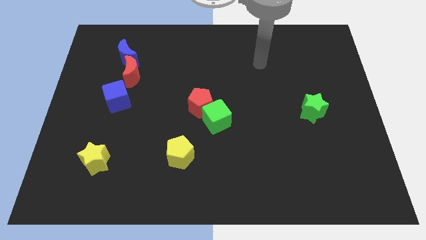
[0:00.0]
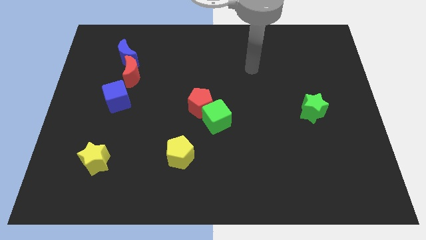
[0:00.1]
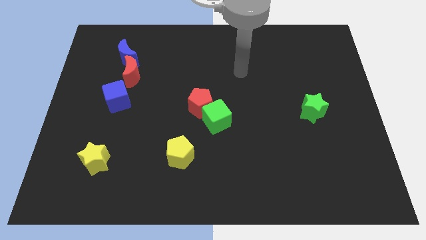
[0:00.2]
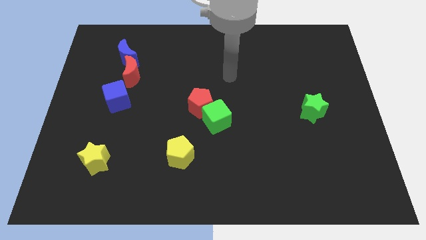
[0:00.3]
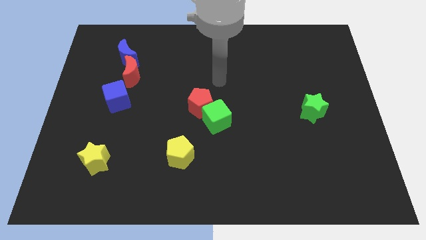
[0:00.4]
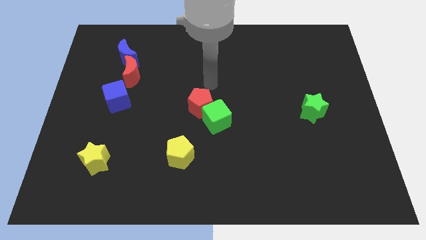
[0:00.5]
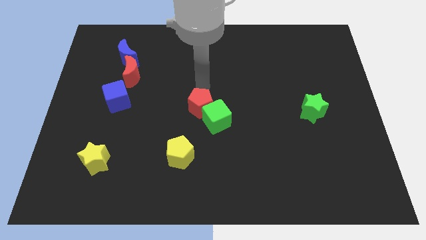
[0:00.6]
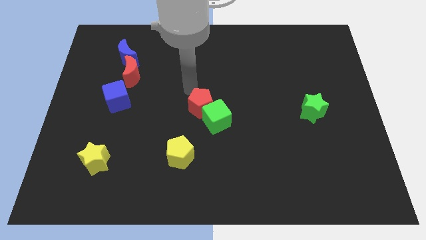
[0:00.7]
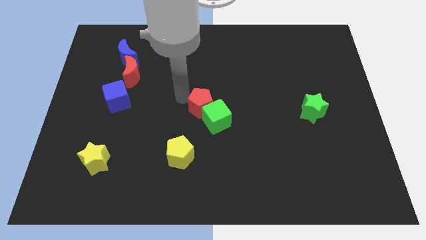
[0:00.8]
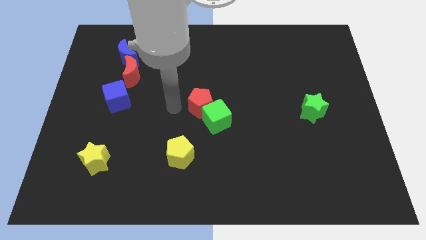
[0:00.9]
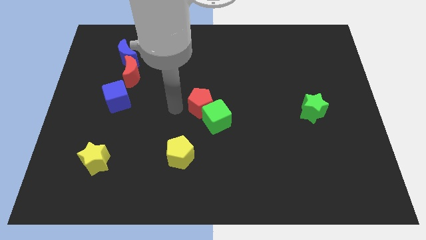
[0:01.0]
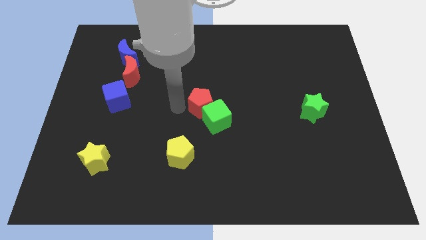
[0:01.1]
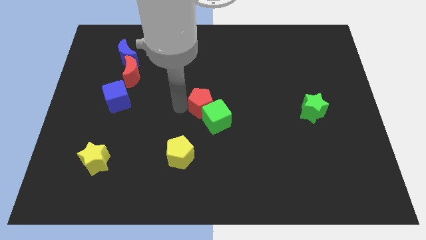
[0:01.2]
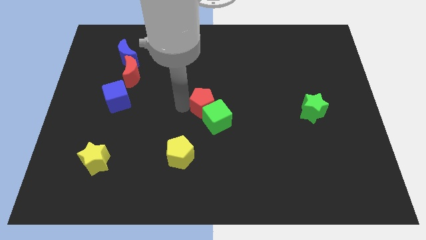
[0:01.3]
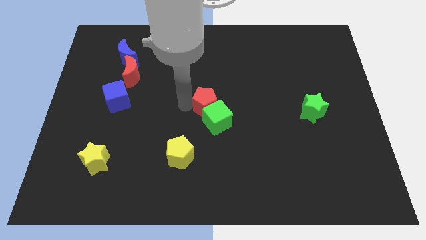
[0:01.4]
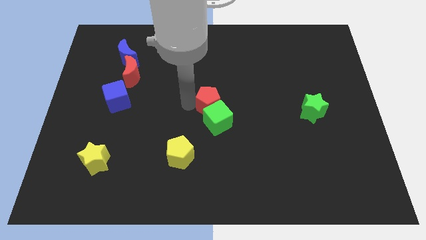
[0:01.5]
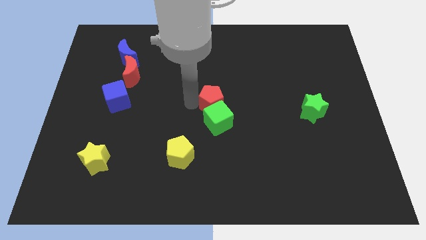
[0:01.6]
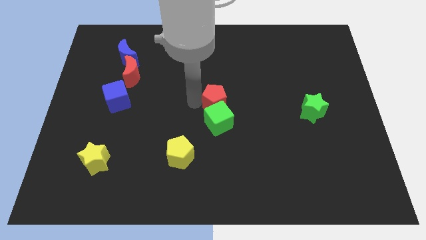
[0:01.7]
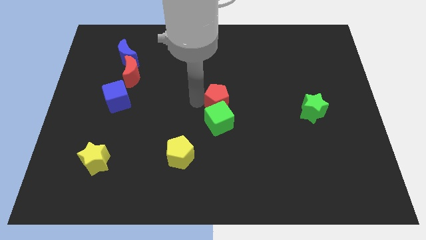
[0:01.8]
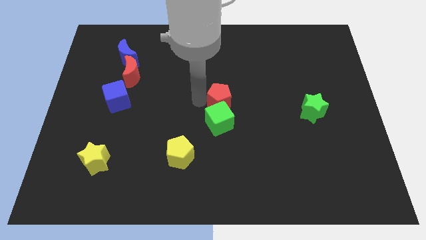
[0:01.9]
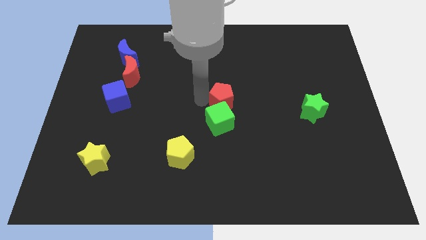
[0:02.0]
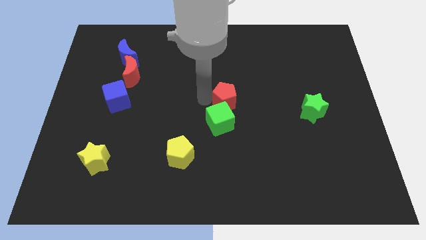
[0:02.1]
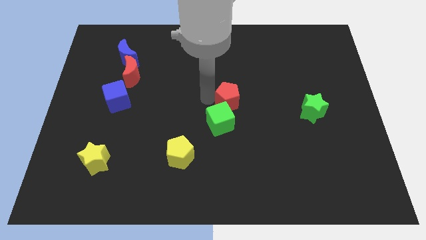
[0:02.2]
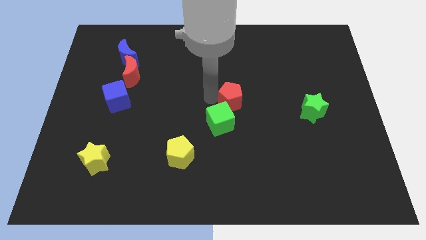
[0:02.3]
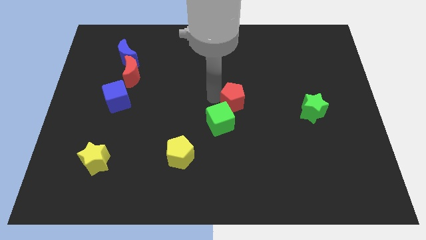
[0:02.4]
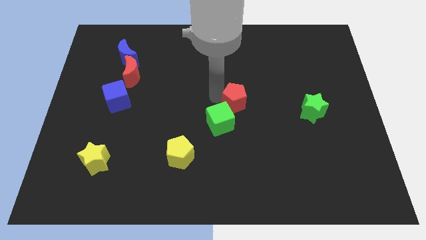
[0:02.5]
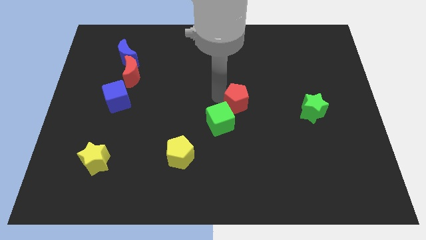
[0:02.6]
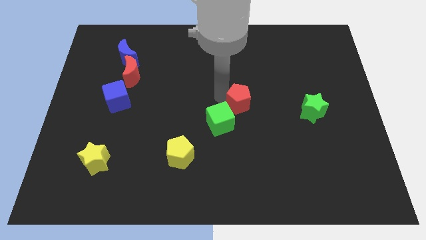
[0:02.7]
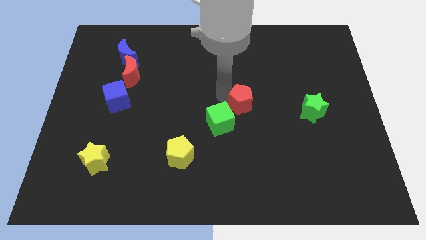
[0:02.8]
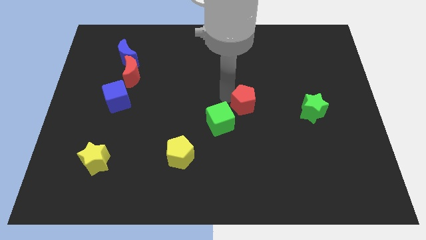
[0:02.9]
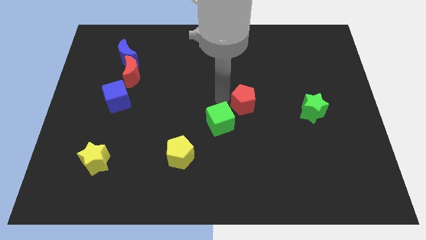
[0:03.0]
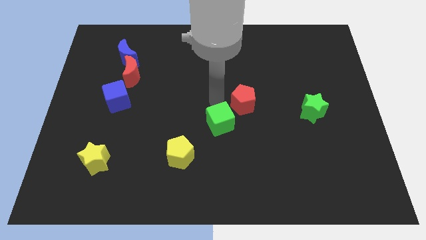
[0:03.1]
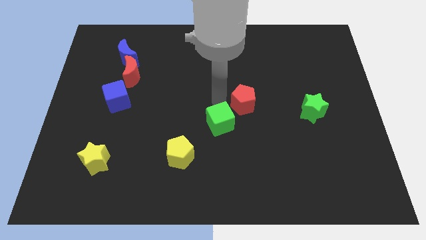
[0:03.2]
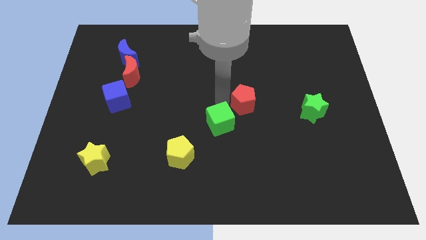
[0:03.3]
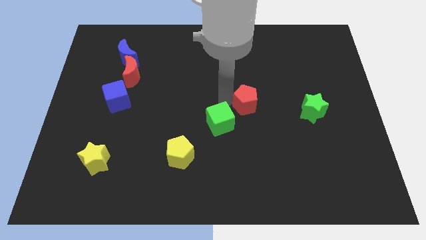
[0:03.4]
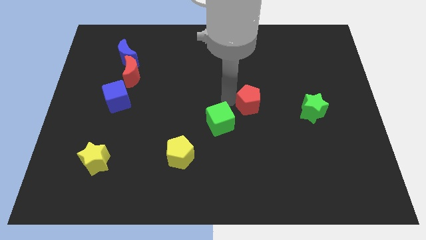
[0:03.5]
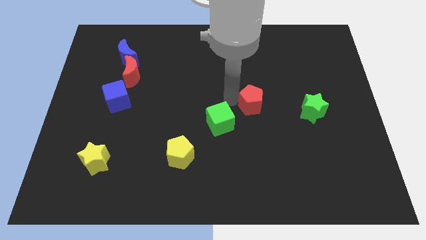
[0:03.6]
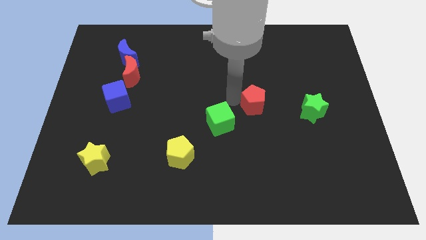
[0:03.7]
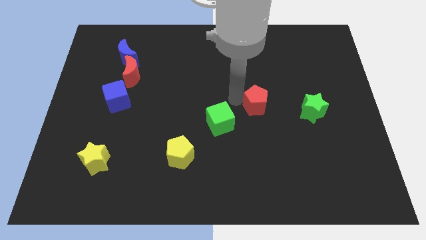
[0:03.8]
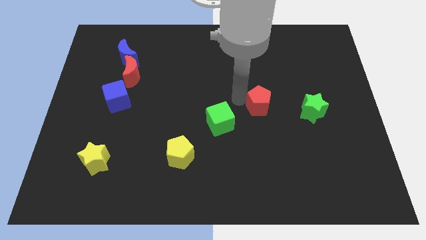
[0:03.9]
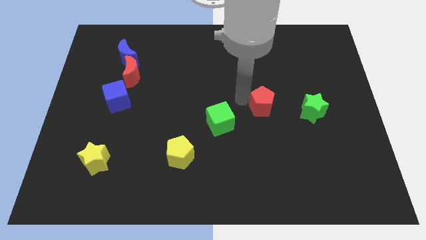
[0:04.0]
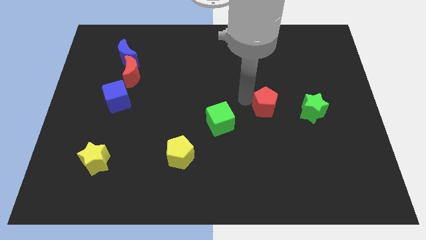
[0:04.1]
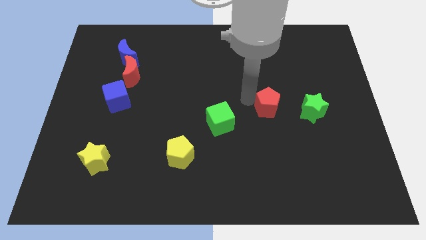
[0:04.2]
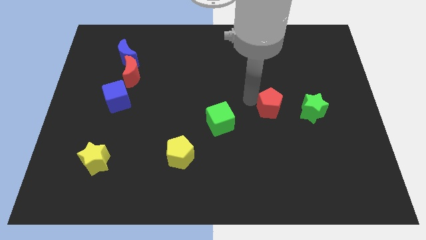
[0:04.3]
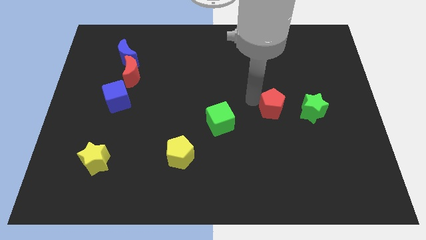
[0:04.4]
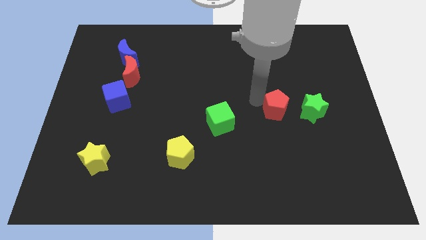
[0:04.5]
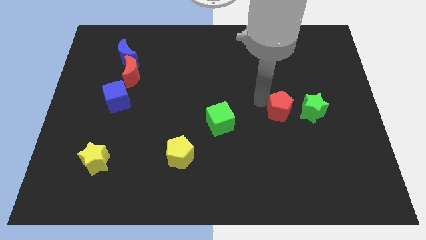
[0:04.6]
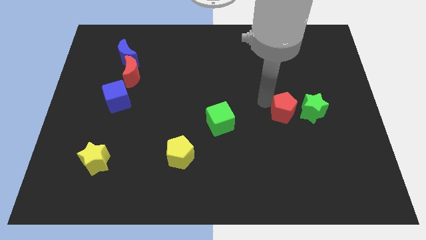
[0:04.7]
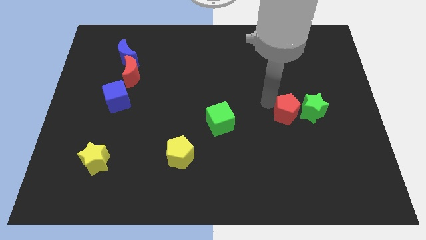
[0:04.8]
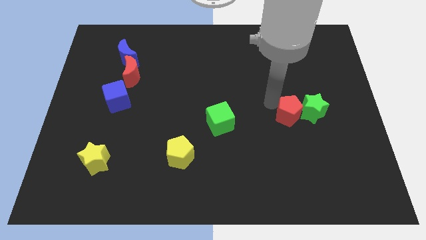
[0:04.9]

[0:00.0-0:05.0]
push the red pentagon close to the green star

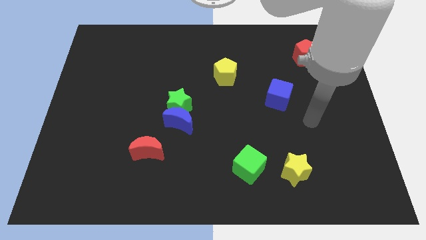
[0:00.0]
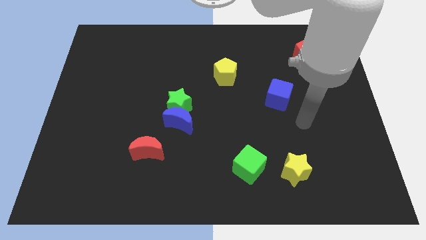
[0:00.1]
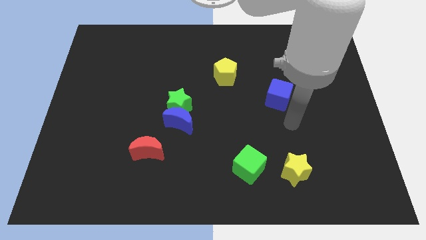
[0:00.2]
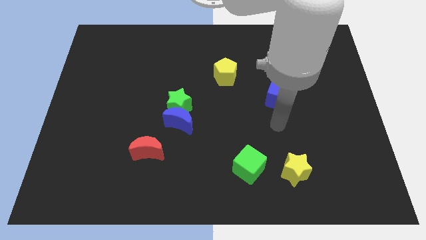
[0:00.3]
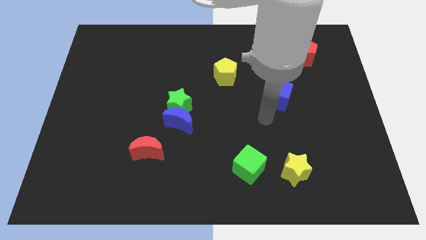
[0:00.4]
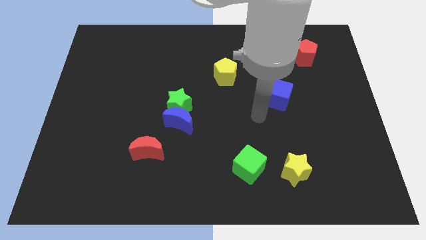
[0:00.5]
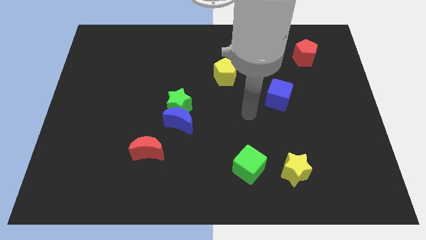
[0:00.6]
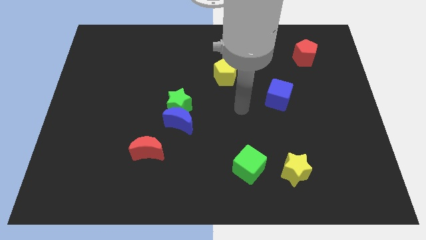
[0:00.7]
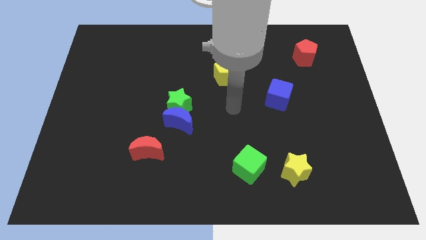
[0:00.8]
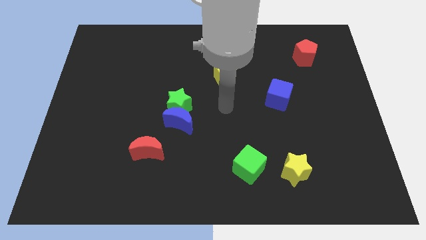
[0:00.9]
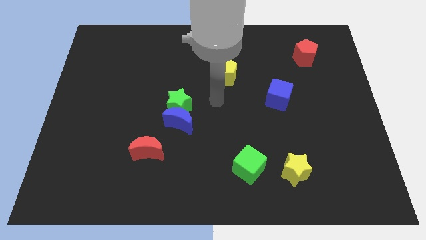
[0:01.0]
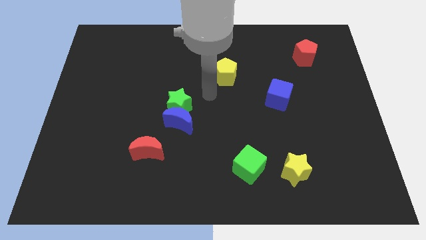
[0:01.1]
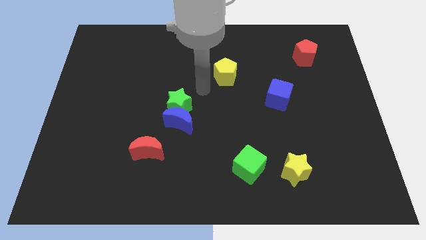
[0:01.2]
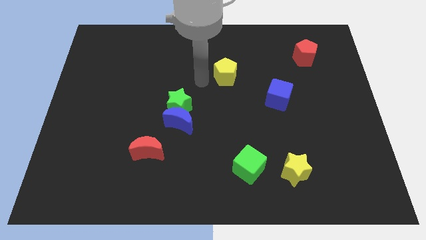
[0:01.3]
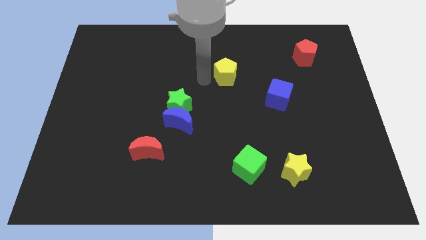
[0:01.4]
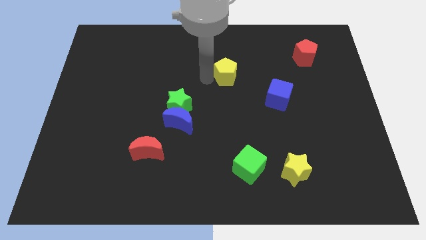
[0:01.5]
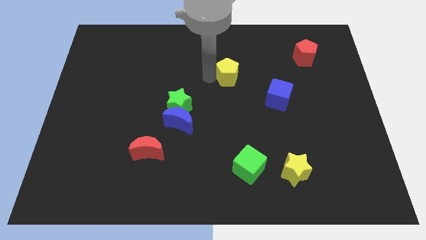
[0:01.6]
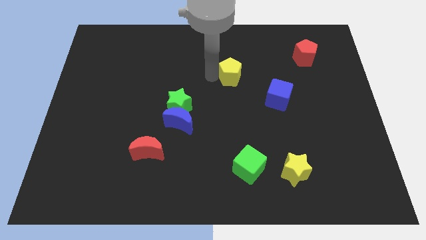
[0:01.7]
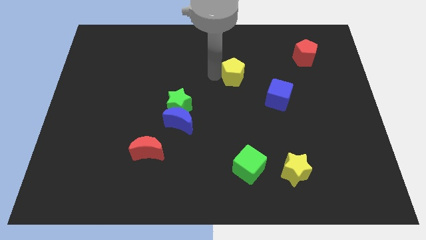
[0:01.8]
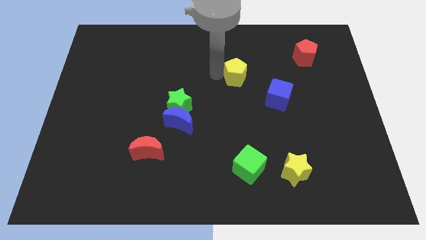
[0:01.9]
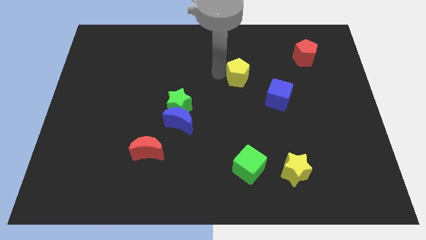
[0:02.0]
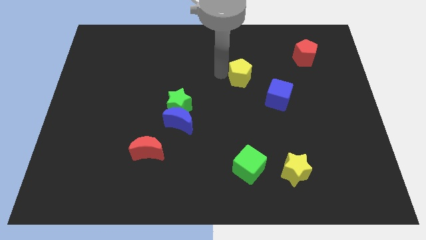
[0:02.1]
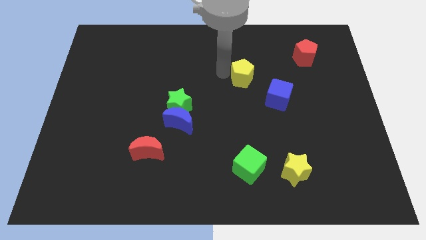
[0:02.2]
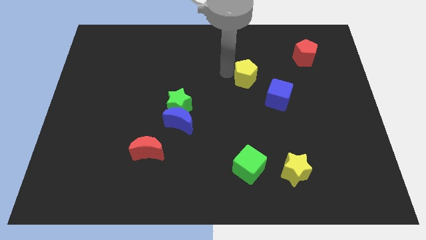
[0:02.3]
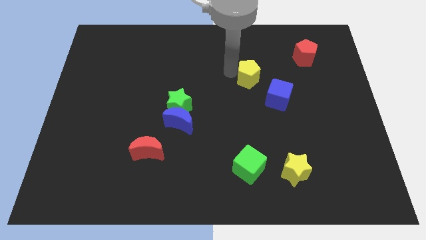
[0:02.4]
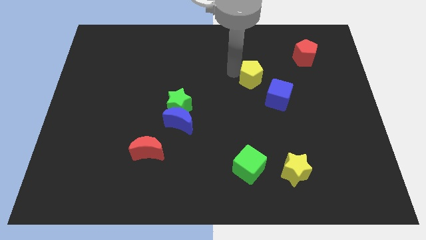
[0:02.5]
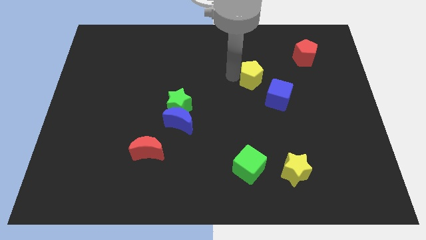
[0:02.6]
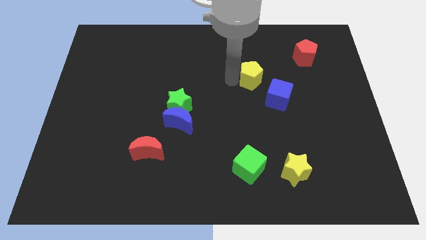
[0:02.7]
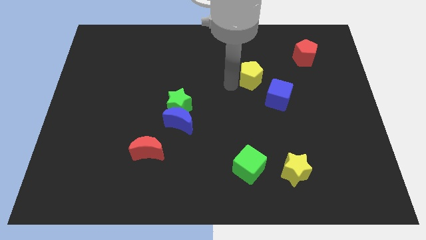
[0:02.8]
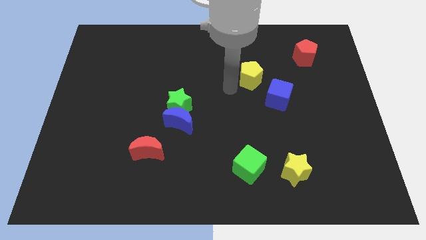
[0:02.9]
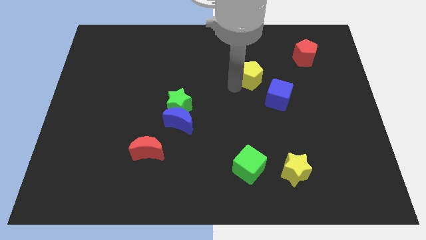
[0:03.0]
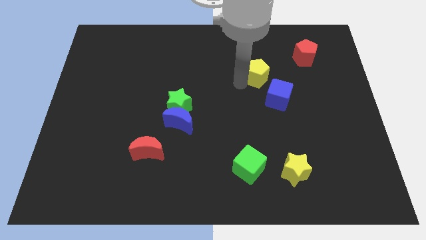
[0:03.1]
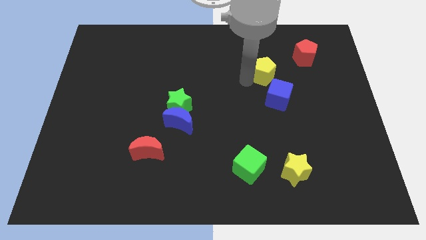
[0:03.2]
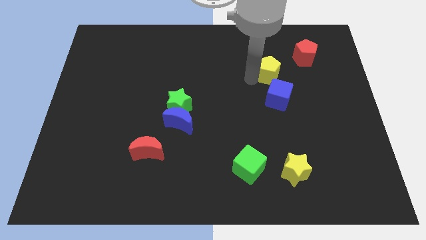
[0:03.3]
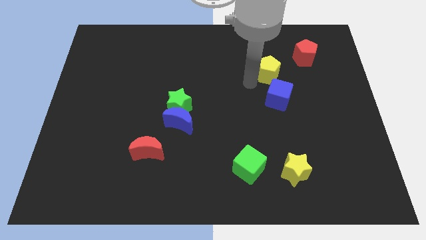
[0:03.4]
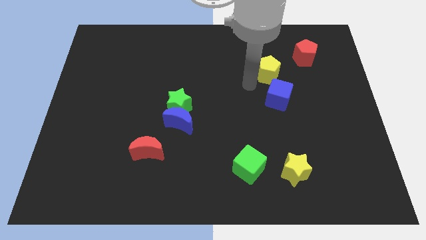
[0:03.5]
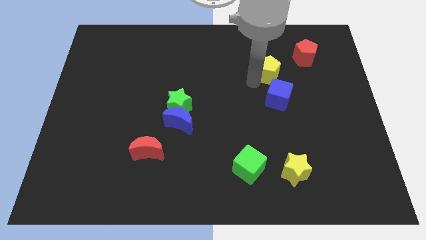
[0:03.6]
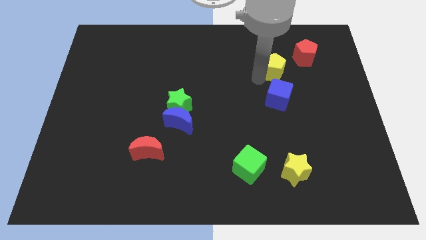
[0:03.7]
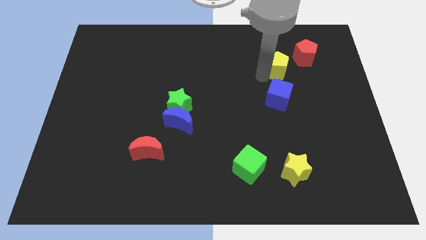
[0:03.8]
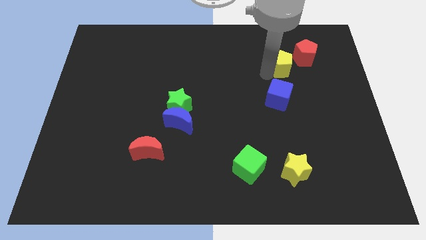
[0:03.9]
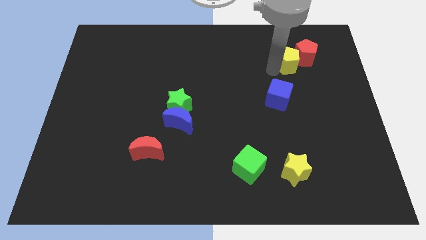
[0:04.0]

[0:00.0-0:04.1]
put the yellow pentagon close to the red pentagon
